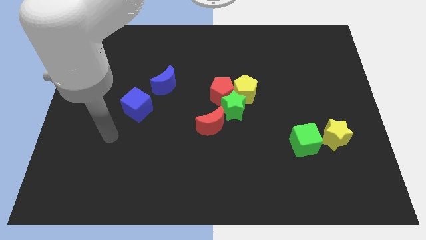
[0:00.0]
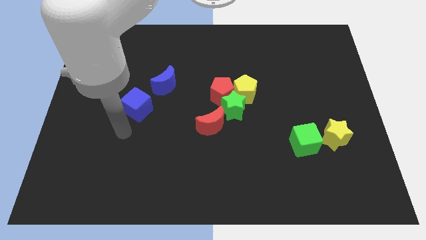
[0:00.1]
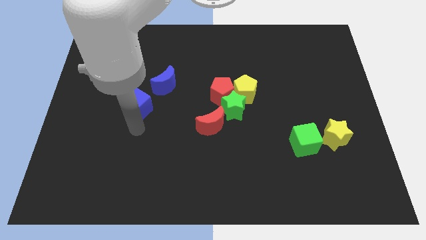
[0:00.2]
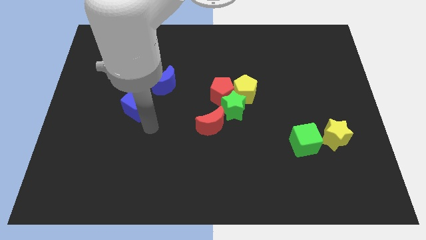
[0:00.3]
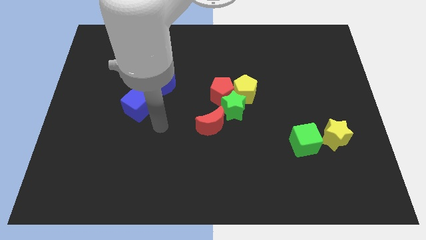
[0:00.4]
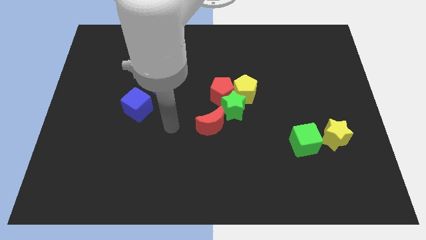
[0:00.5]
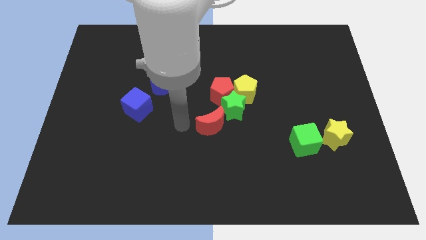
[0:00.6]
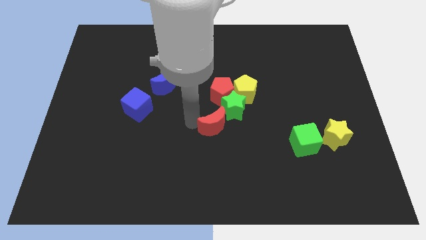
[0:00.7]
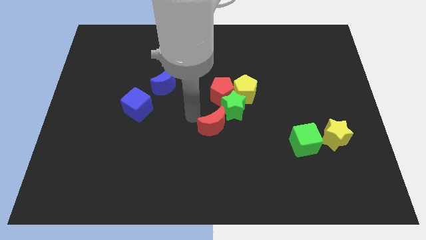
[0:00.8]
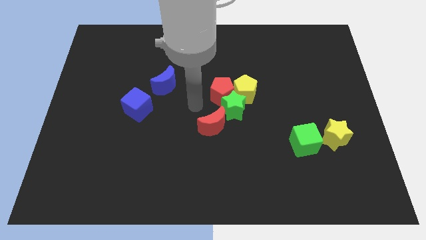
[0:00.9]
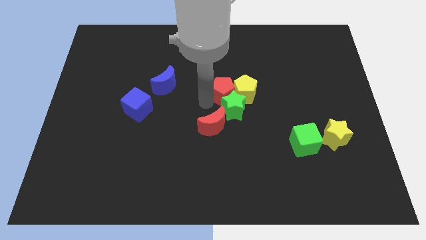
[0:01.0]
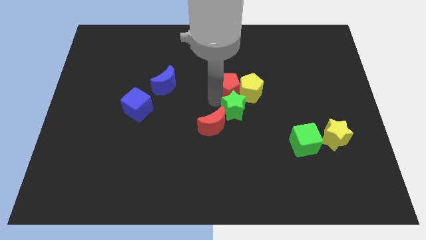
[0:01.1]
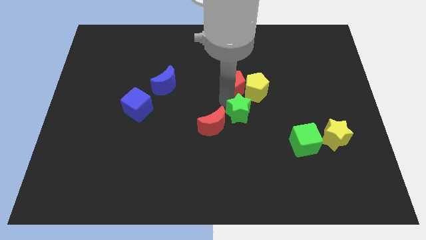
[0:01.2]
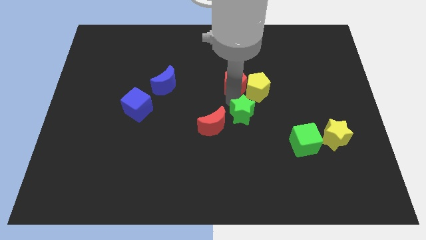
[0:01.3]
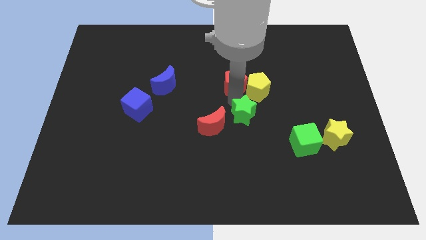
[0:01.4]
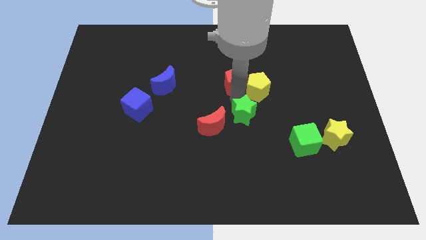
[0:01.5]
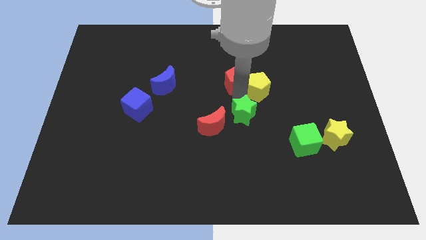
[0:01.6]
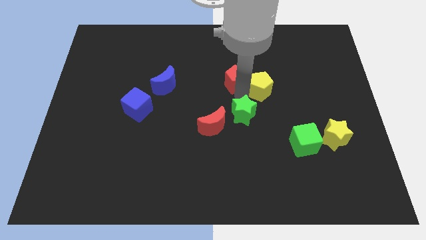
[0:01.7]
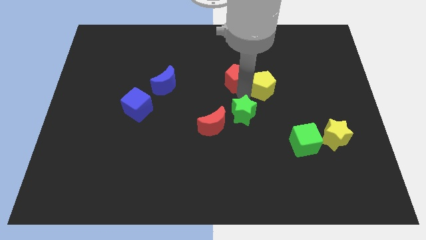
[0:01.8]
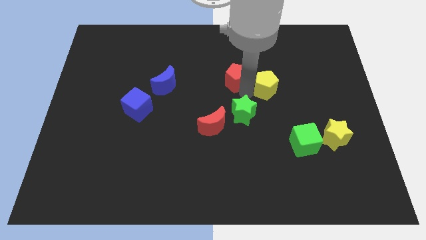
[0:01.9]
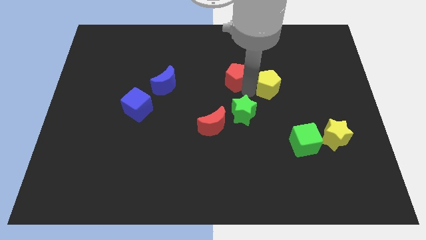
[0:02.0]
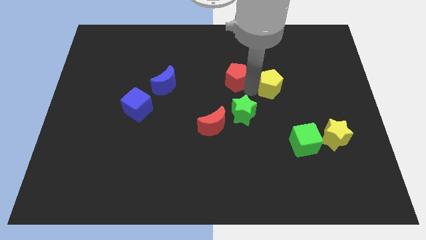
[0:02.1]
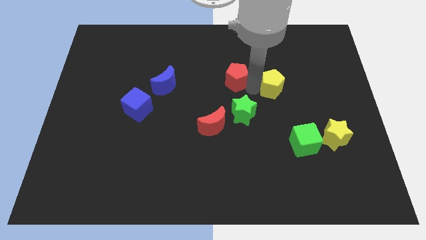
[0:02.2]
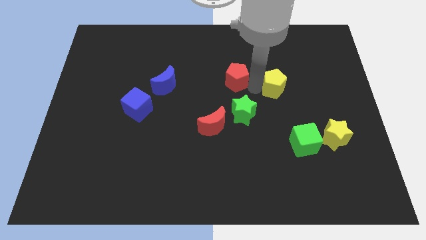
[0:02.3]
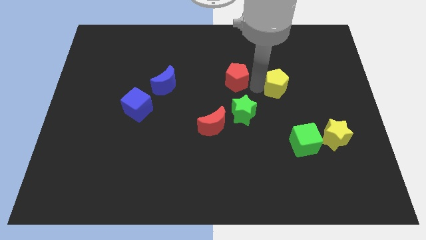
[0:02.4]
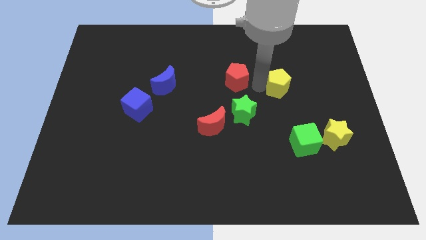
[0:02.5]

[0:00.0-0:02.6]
pull the yellow pentagon apart from the red pentagon and green star

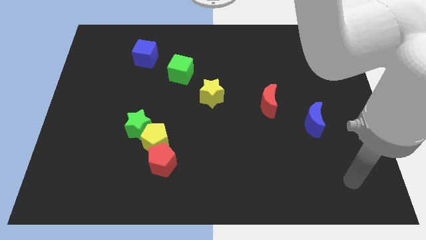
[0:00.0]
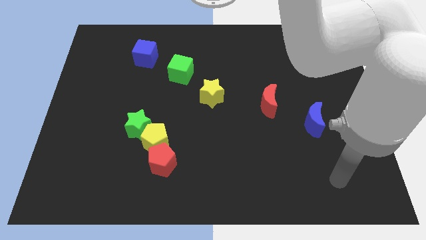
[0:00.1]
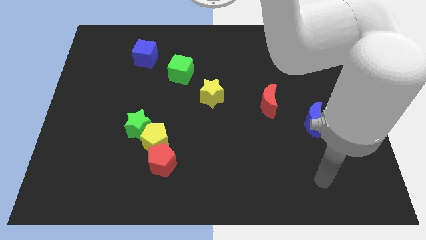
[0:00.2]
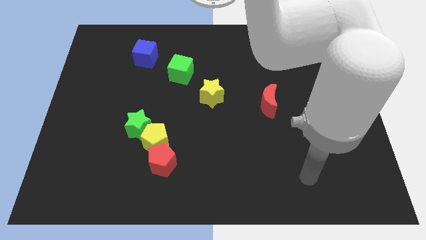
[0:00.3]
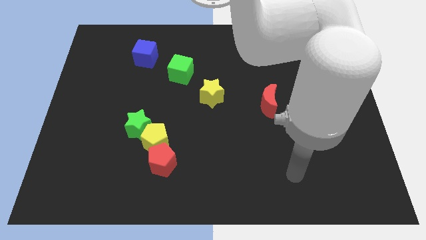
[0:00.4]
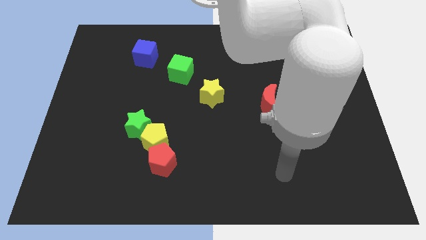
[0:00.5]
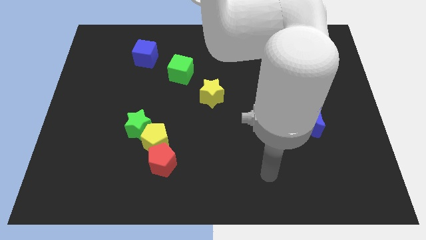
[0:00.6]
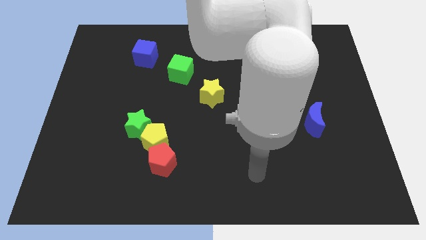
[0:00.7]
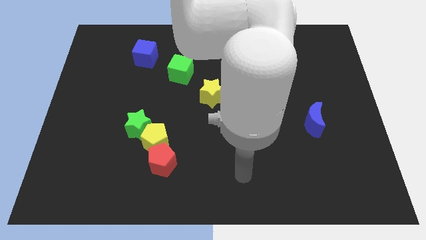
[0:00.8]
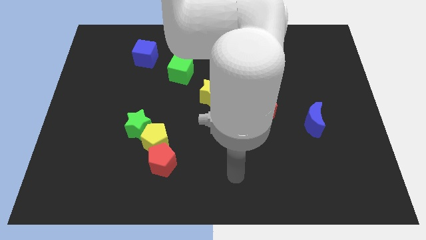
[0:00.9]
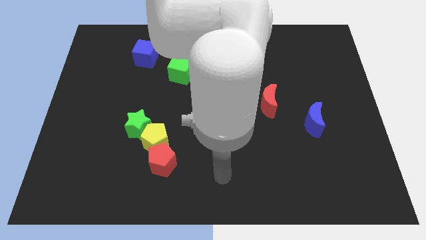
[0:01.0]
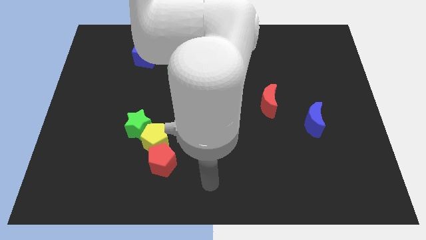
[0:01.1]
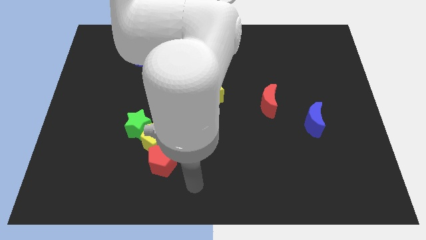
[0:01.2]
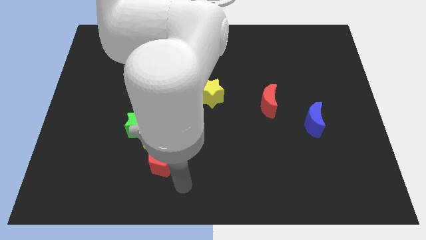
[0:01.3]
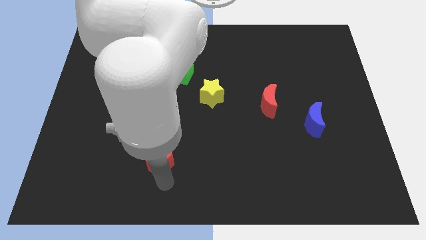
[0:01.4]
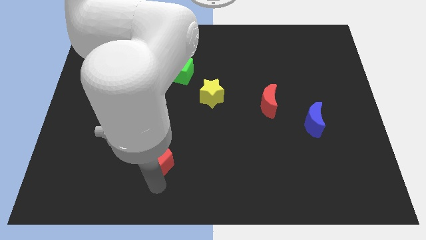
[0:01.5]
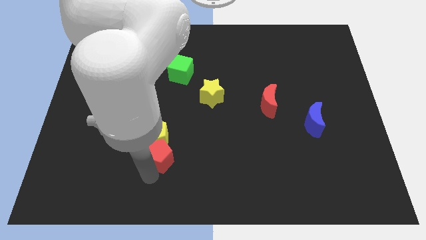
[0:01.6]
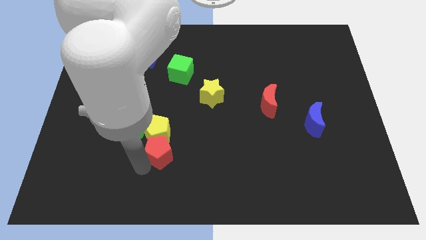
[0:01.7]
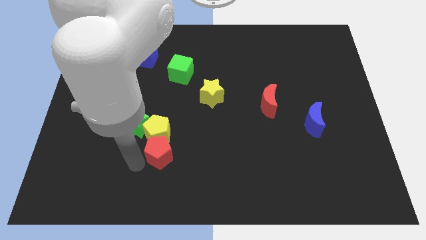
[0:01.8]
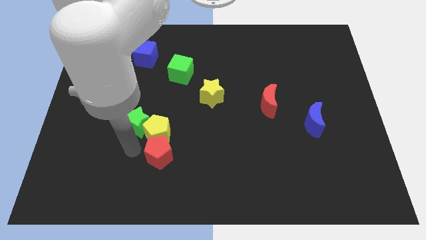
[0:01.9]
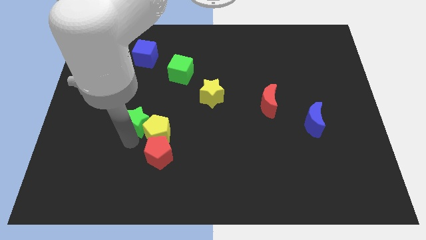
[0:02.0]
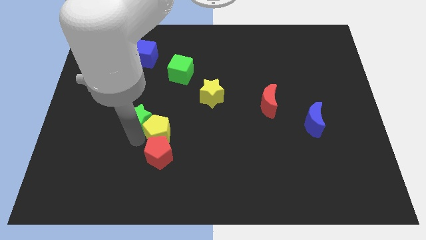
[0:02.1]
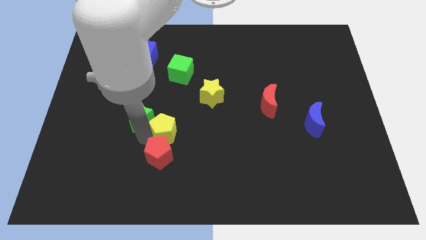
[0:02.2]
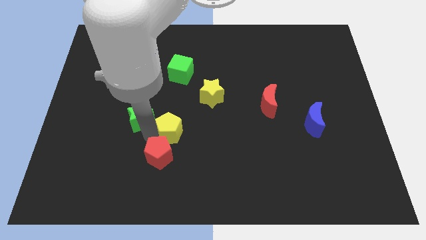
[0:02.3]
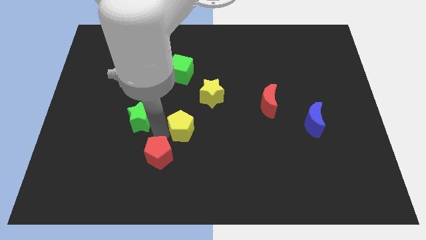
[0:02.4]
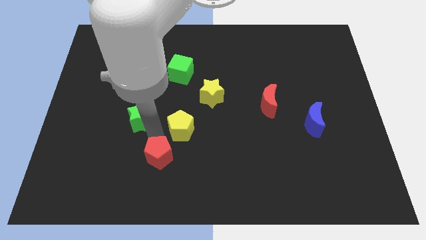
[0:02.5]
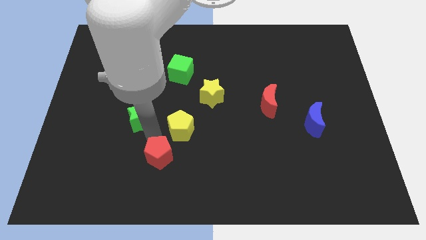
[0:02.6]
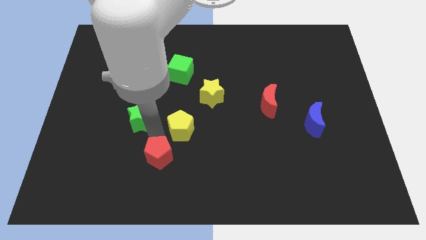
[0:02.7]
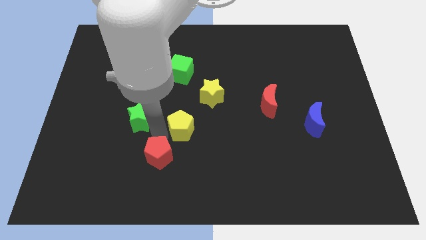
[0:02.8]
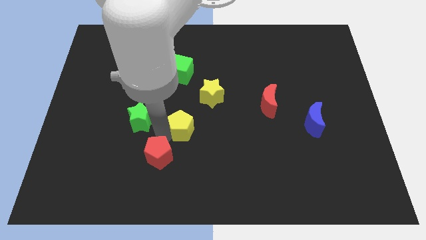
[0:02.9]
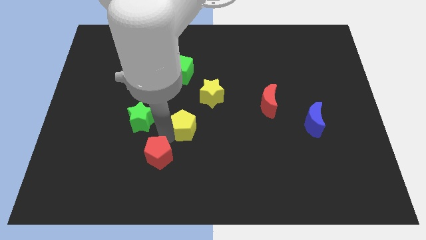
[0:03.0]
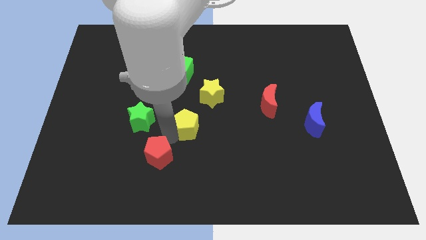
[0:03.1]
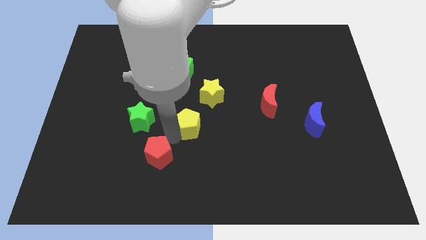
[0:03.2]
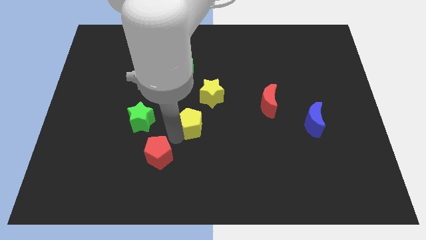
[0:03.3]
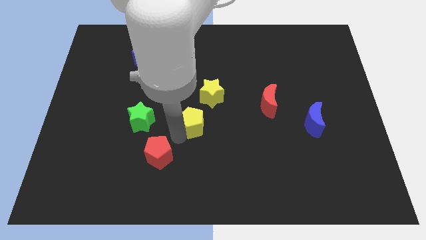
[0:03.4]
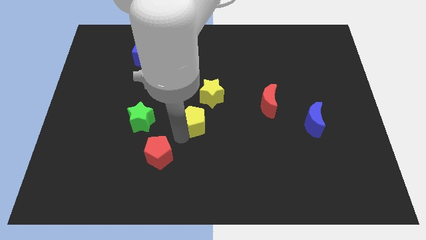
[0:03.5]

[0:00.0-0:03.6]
separate the yellow pentagon from the red pentagon and green star

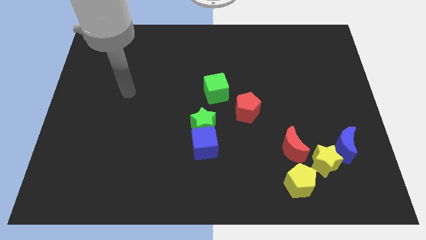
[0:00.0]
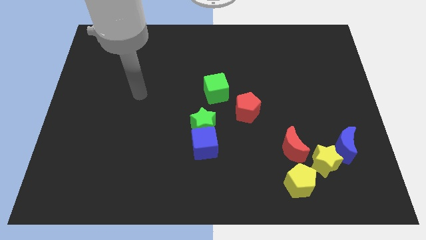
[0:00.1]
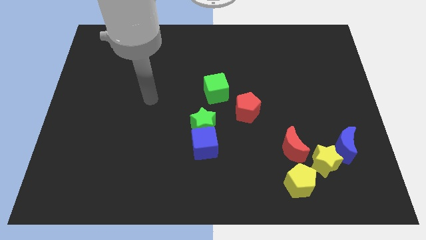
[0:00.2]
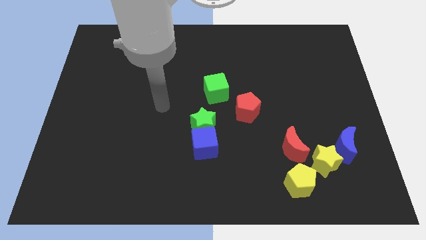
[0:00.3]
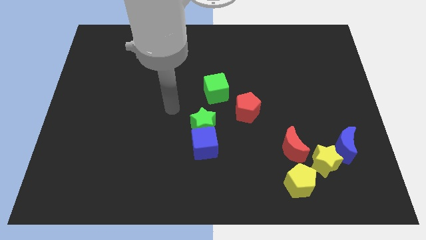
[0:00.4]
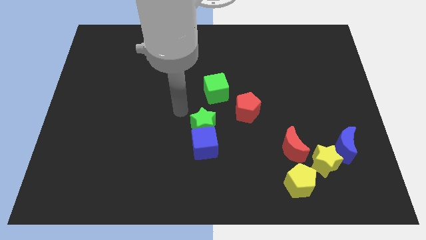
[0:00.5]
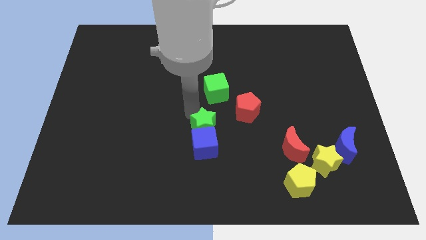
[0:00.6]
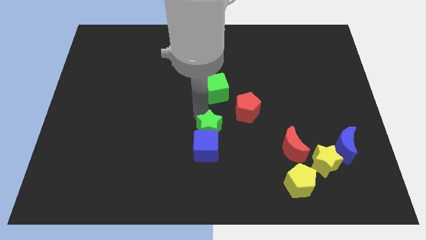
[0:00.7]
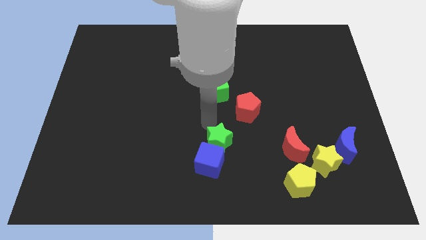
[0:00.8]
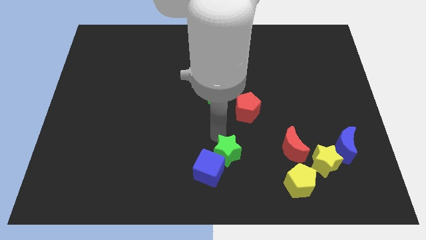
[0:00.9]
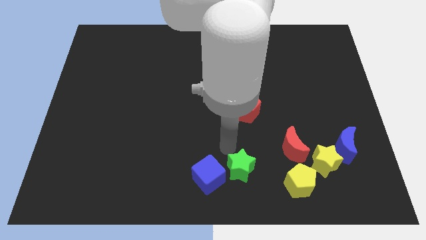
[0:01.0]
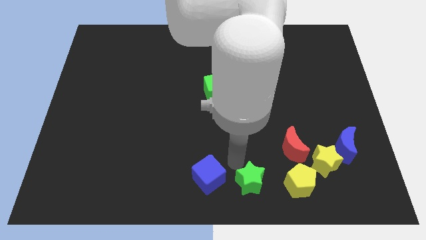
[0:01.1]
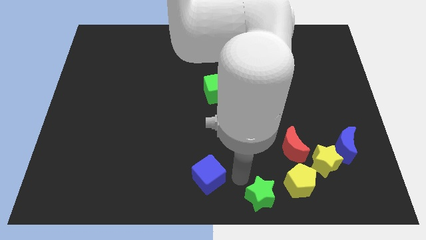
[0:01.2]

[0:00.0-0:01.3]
pull the blue cube apart from the green star

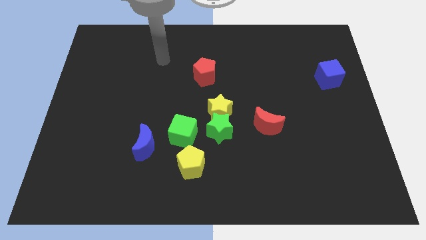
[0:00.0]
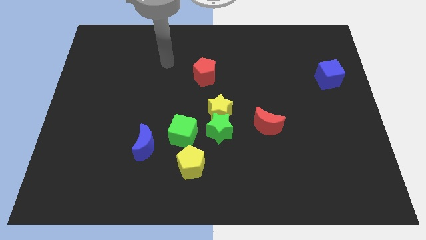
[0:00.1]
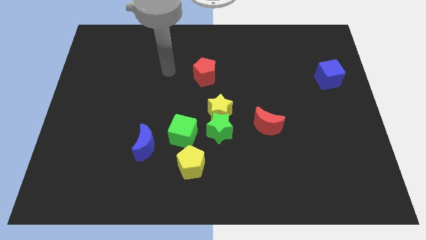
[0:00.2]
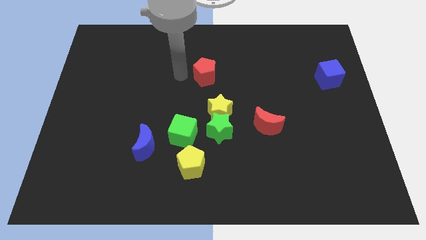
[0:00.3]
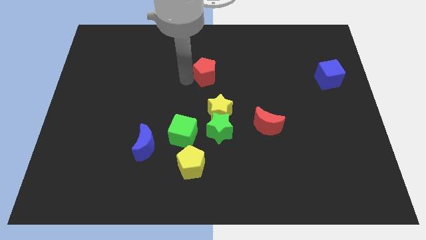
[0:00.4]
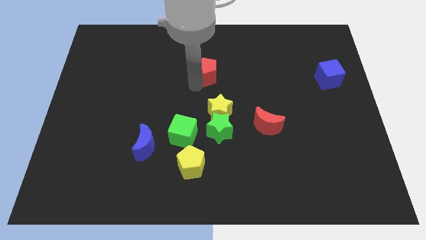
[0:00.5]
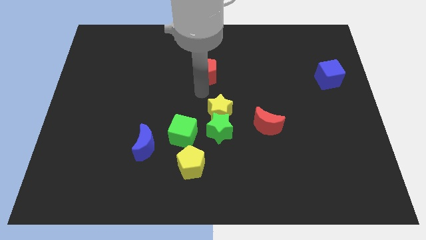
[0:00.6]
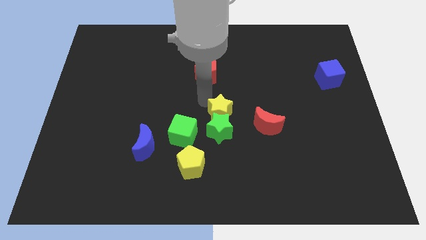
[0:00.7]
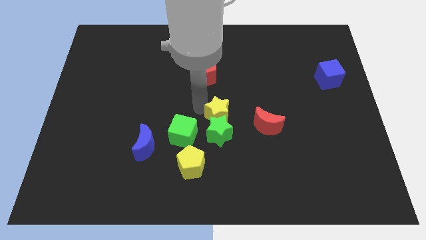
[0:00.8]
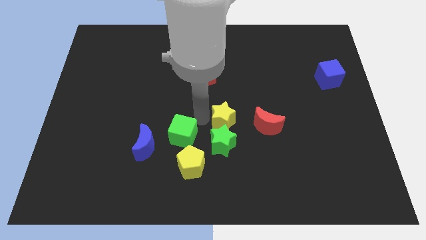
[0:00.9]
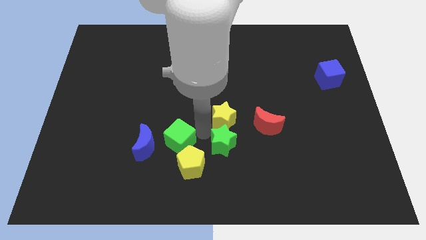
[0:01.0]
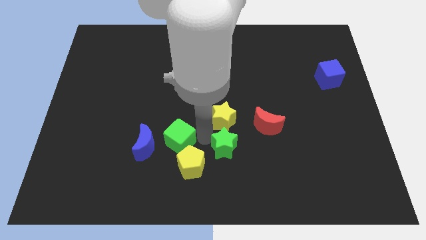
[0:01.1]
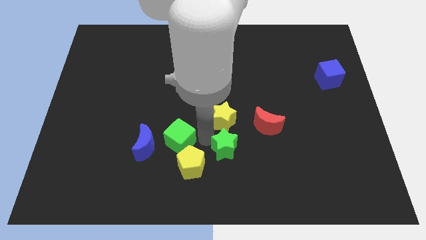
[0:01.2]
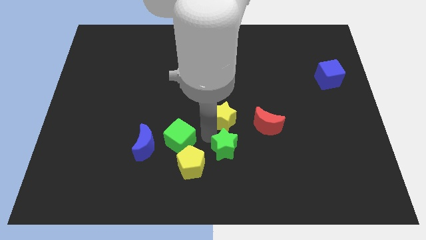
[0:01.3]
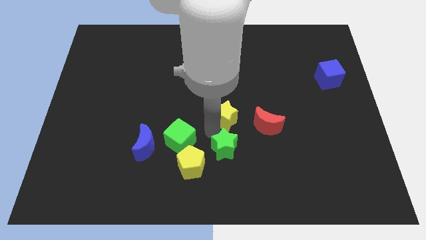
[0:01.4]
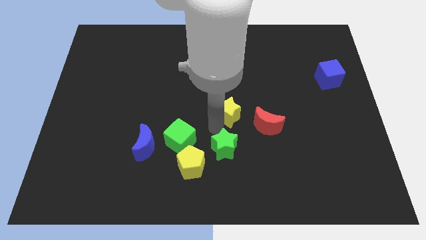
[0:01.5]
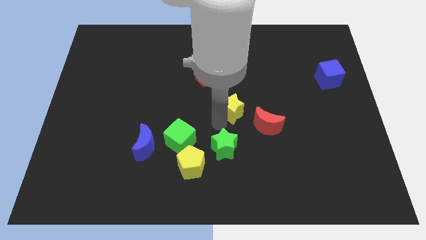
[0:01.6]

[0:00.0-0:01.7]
move the yellow star away from the green star and green cube

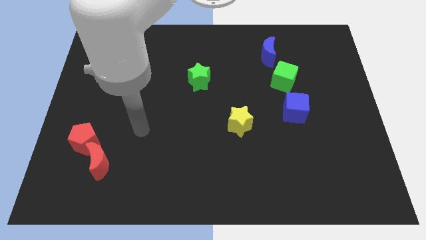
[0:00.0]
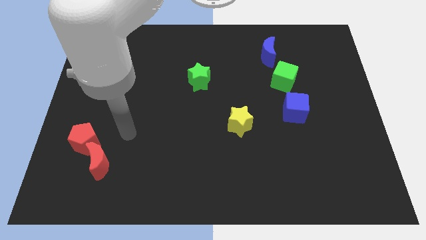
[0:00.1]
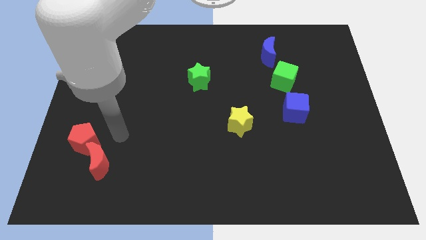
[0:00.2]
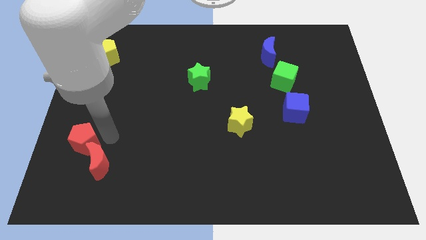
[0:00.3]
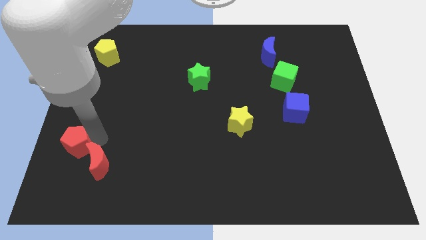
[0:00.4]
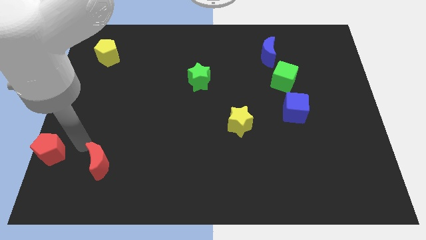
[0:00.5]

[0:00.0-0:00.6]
separate the red moon from the red pentagon
